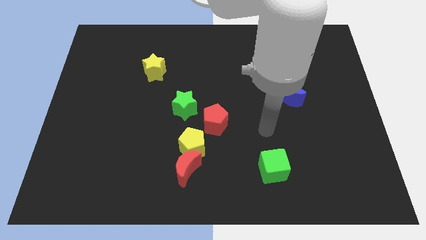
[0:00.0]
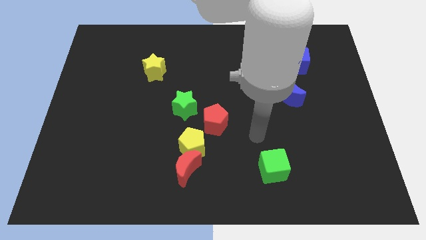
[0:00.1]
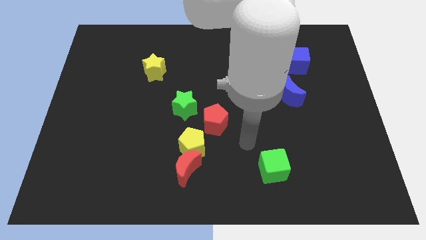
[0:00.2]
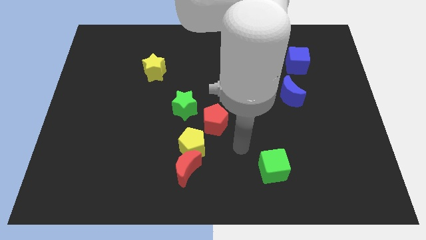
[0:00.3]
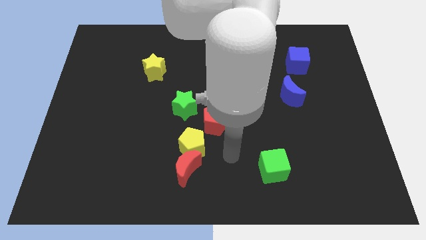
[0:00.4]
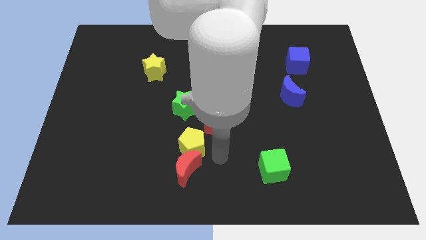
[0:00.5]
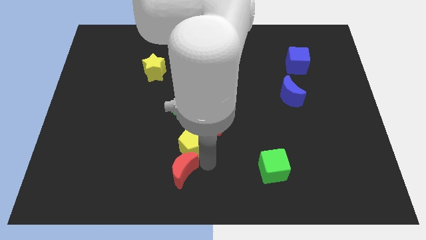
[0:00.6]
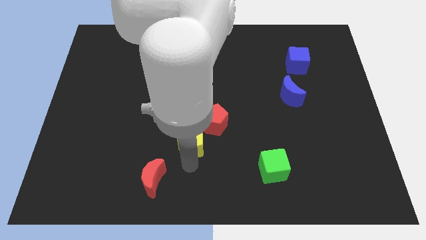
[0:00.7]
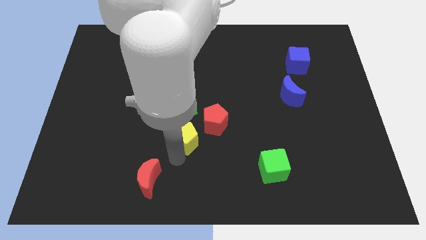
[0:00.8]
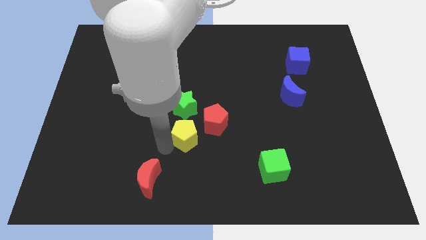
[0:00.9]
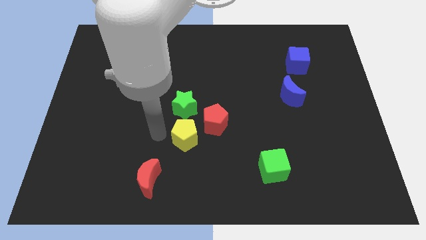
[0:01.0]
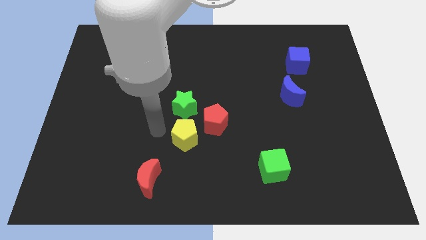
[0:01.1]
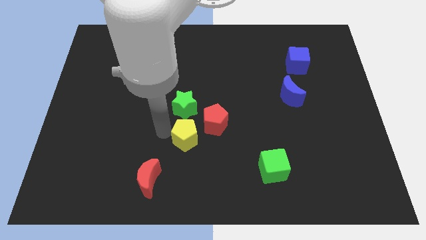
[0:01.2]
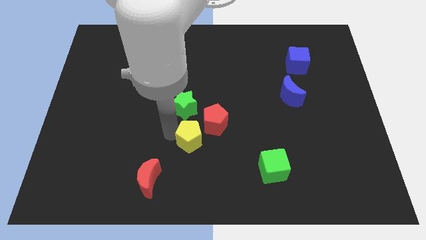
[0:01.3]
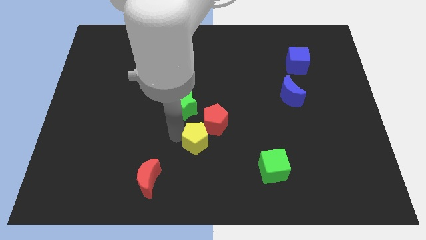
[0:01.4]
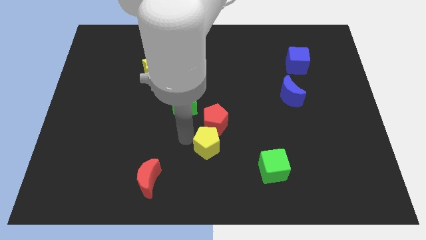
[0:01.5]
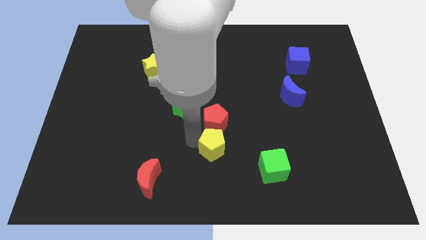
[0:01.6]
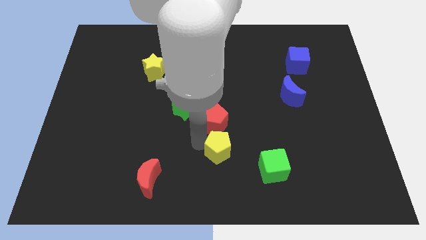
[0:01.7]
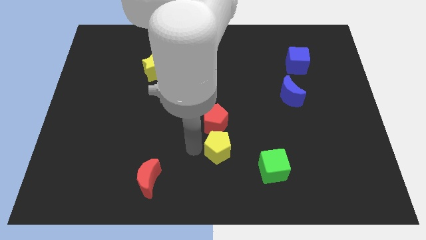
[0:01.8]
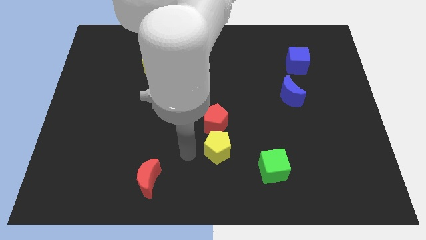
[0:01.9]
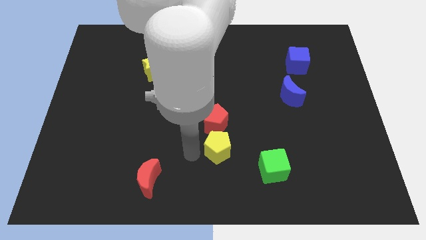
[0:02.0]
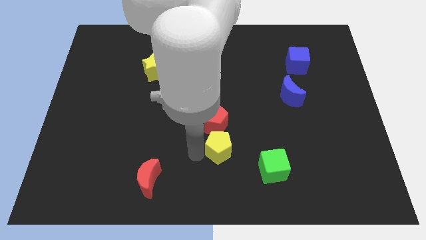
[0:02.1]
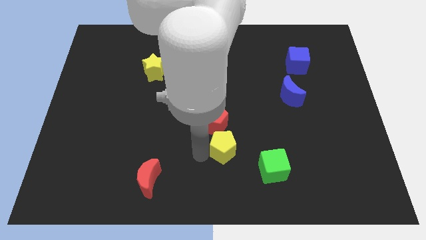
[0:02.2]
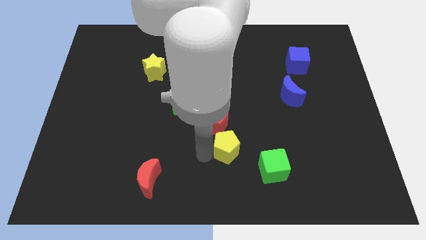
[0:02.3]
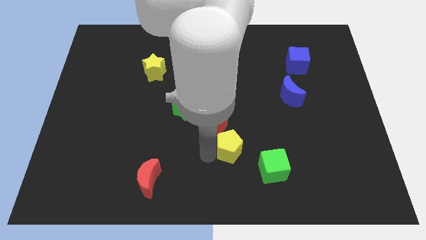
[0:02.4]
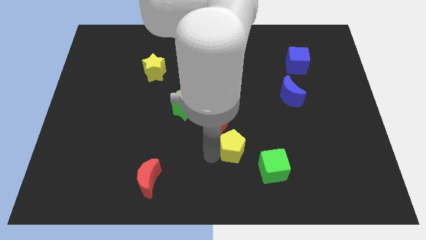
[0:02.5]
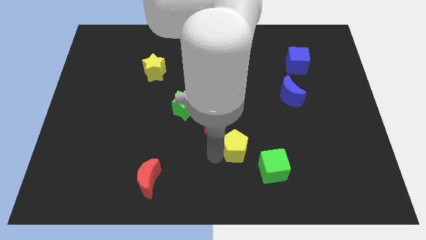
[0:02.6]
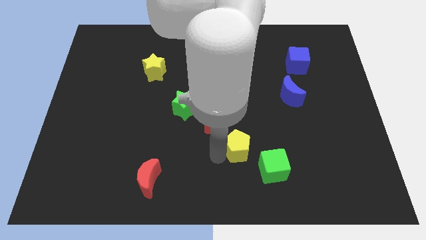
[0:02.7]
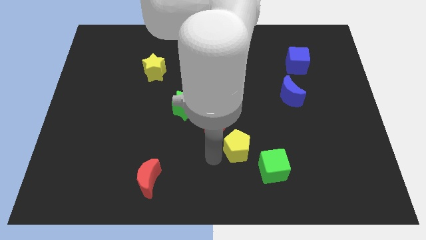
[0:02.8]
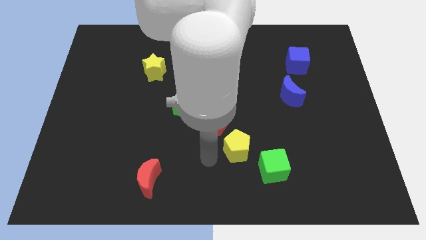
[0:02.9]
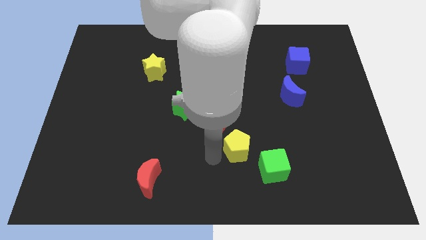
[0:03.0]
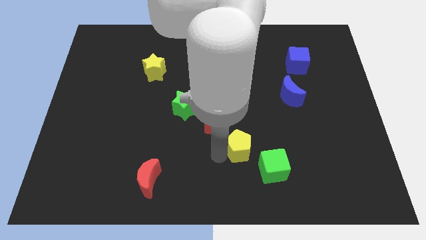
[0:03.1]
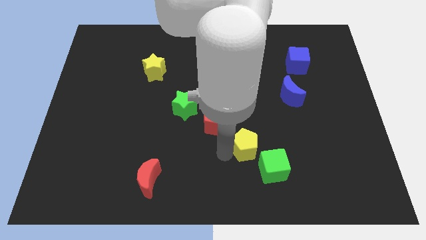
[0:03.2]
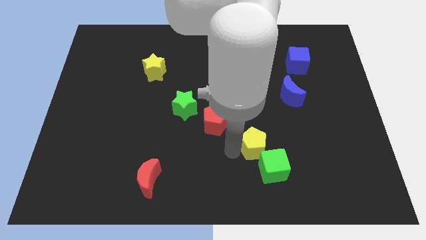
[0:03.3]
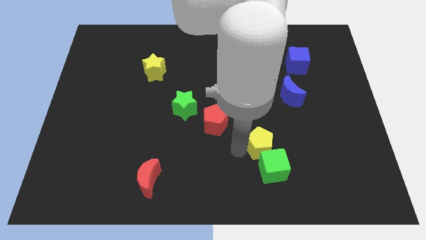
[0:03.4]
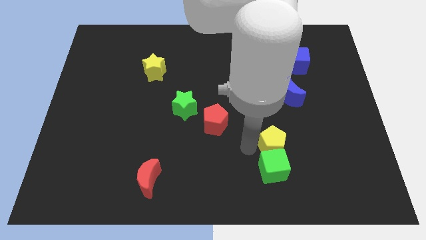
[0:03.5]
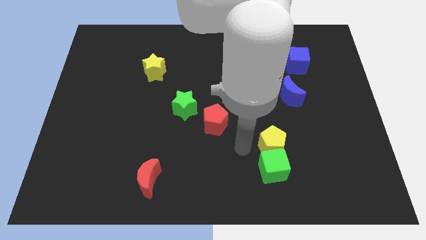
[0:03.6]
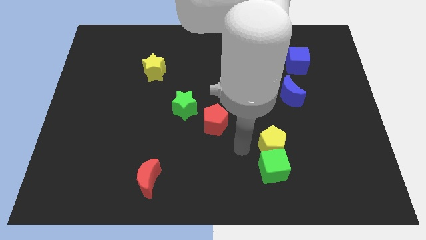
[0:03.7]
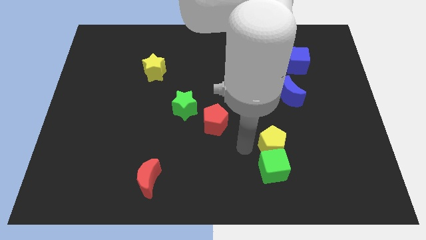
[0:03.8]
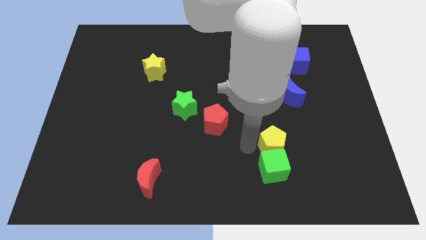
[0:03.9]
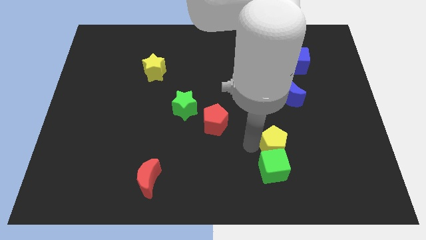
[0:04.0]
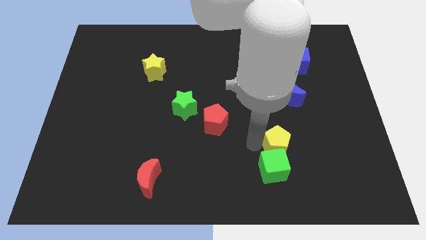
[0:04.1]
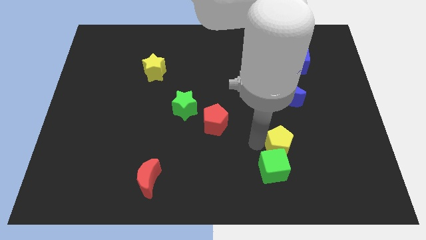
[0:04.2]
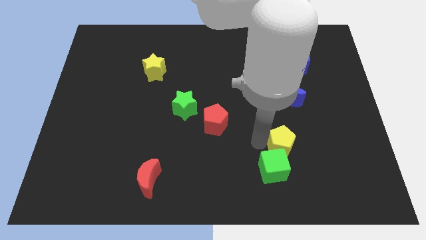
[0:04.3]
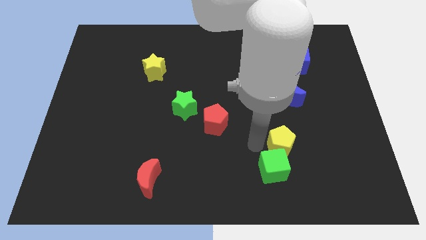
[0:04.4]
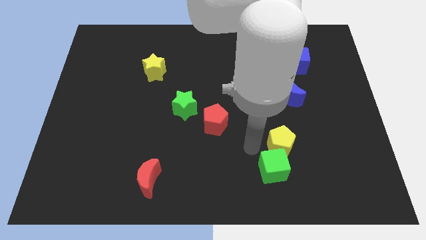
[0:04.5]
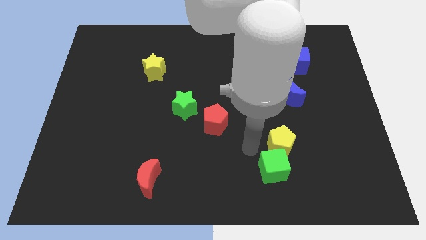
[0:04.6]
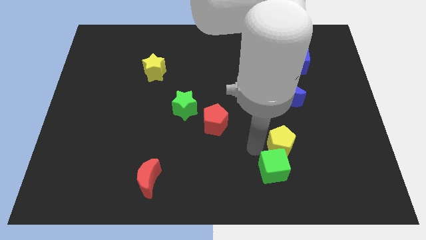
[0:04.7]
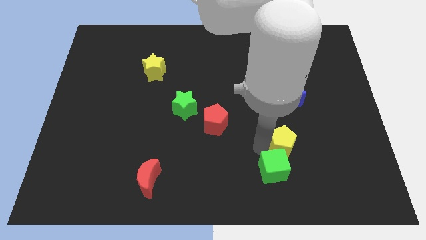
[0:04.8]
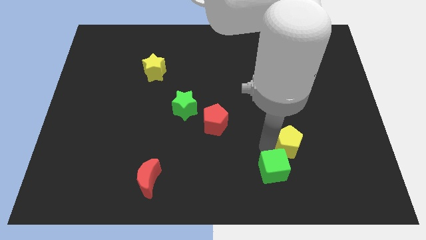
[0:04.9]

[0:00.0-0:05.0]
slide the yellow pentagon right

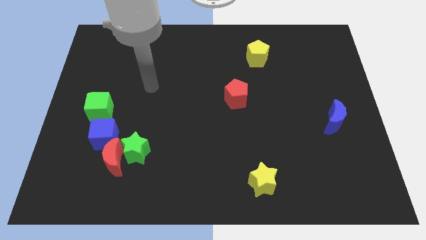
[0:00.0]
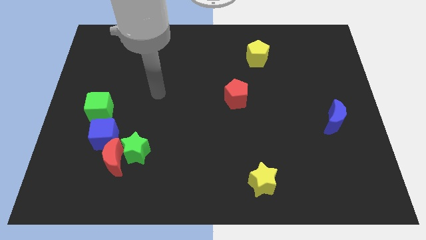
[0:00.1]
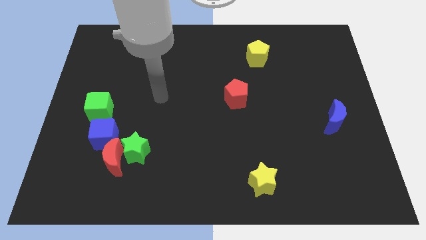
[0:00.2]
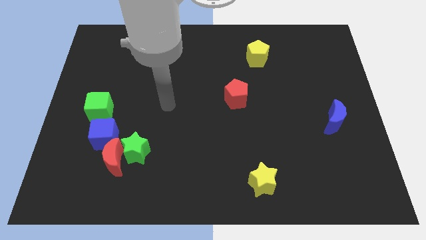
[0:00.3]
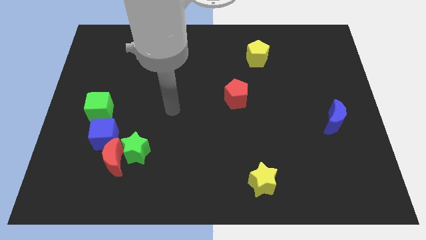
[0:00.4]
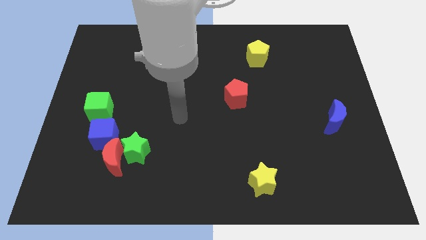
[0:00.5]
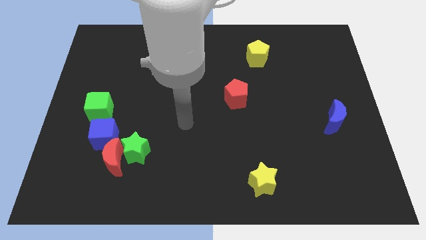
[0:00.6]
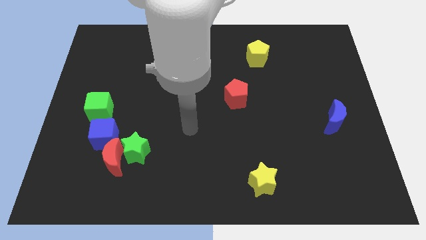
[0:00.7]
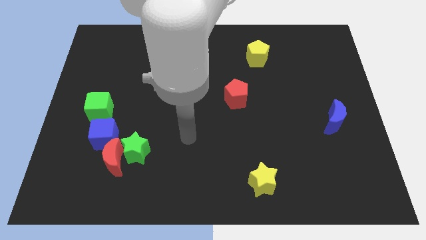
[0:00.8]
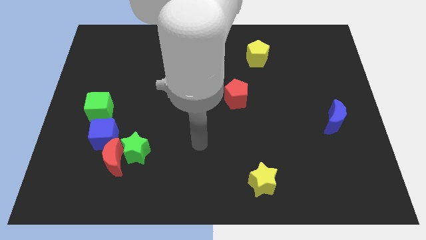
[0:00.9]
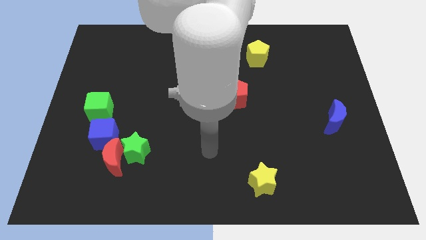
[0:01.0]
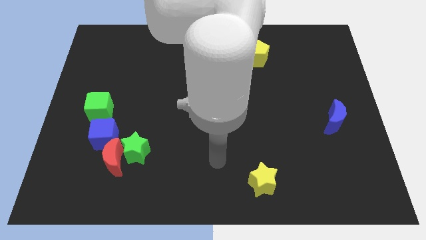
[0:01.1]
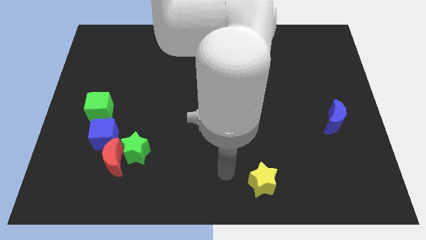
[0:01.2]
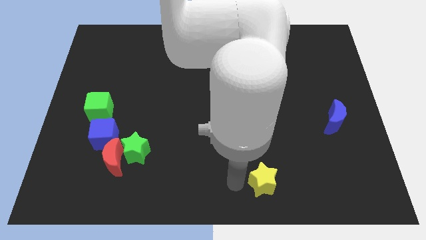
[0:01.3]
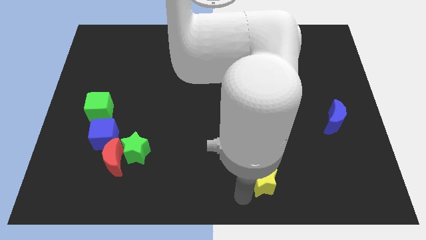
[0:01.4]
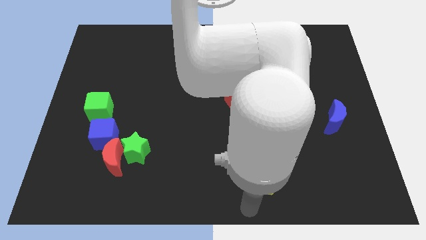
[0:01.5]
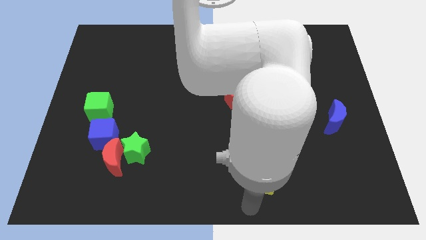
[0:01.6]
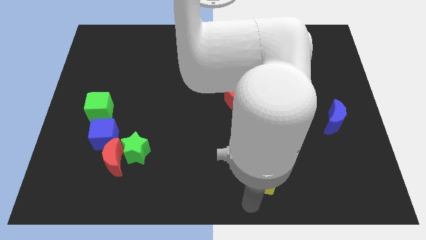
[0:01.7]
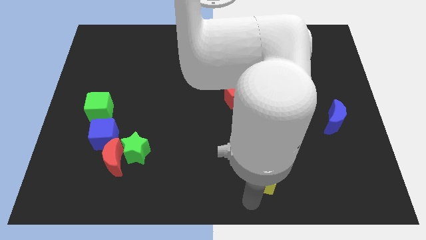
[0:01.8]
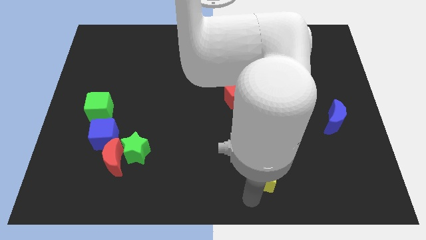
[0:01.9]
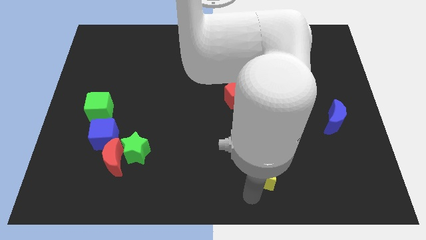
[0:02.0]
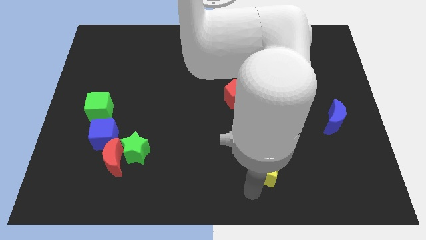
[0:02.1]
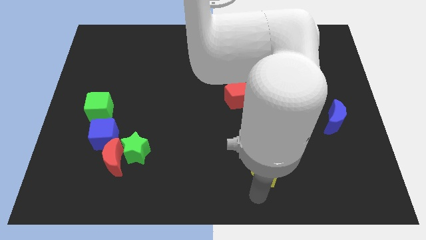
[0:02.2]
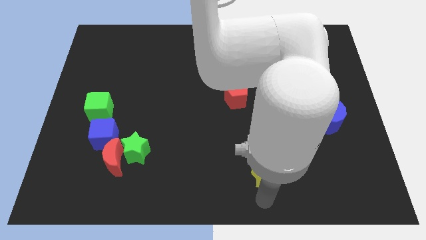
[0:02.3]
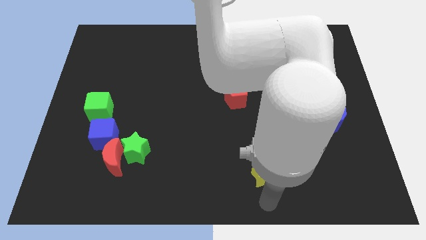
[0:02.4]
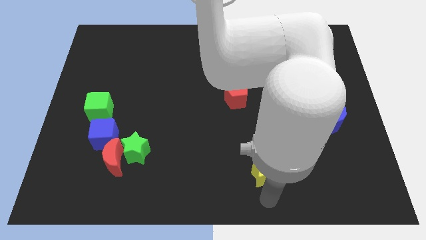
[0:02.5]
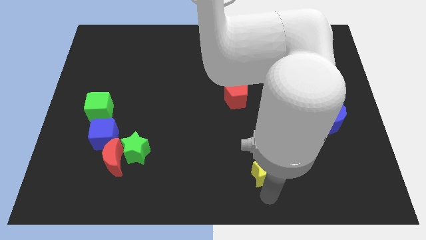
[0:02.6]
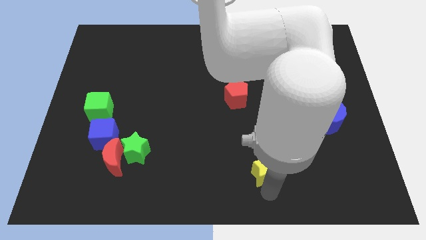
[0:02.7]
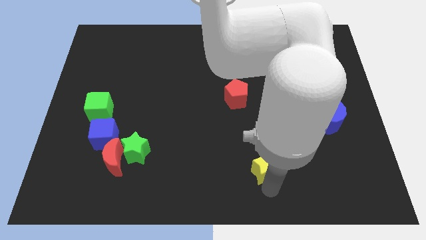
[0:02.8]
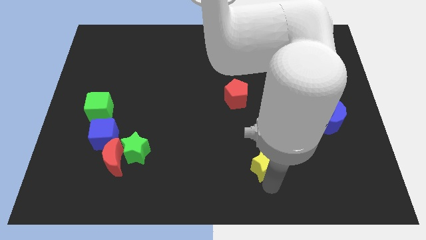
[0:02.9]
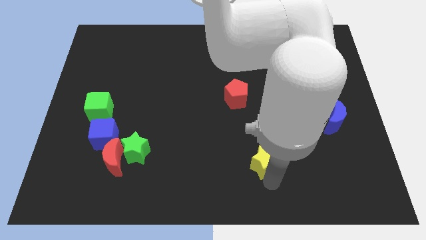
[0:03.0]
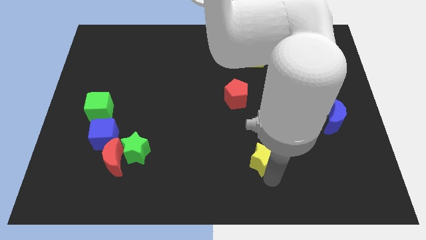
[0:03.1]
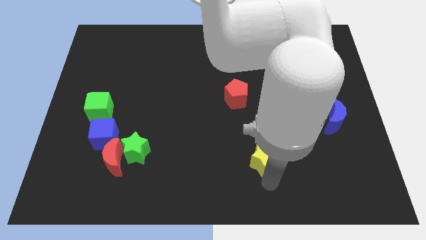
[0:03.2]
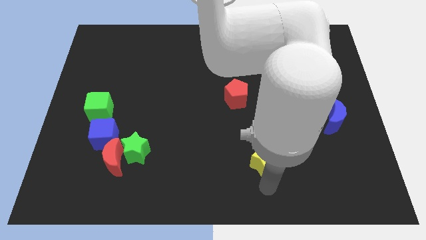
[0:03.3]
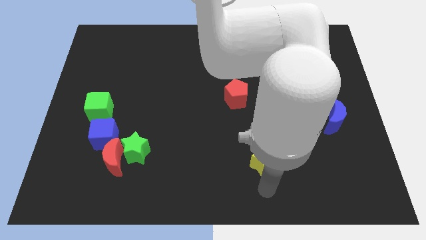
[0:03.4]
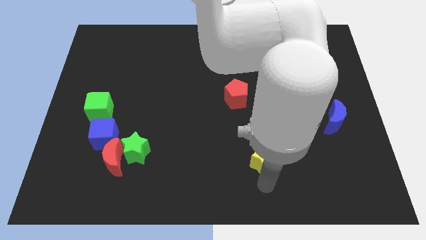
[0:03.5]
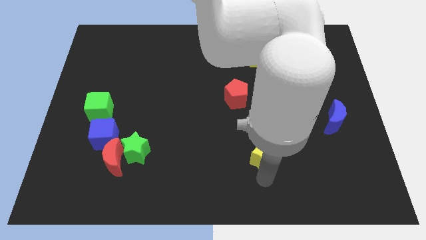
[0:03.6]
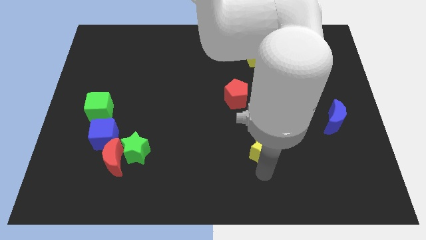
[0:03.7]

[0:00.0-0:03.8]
push the yellow star a bit upwards
